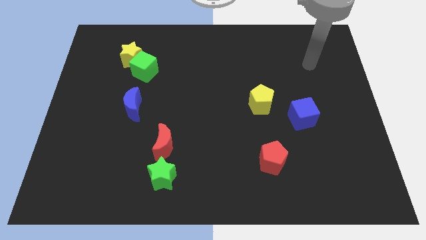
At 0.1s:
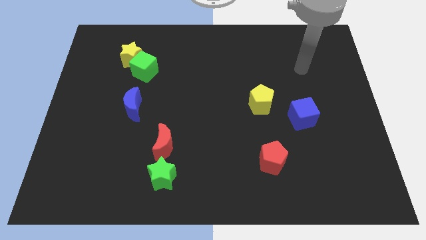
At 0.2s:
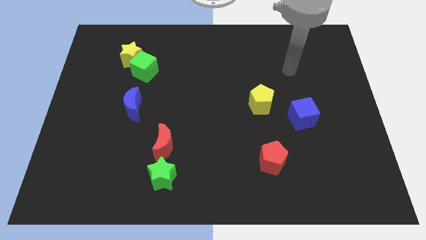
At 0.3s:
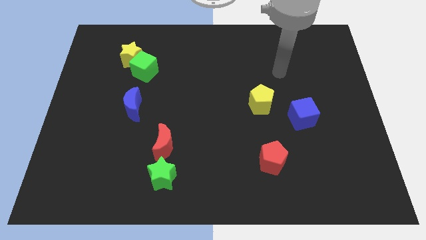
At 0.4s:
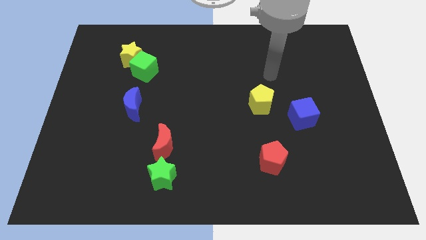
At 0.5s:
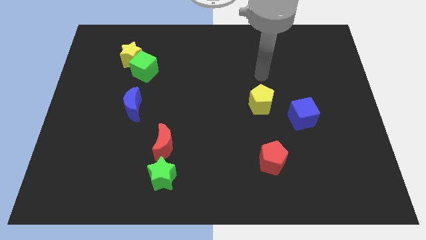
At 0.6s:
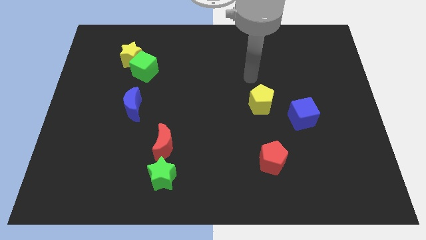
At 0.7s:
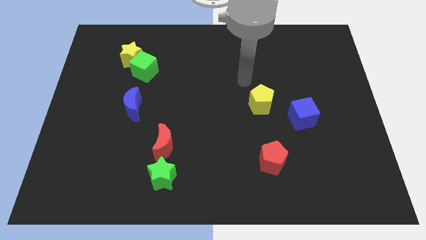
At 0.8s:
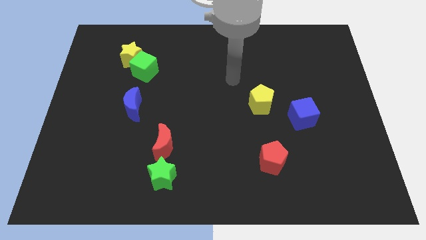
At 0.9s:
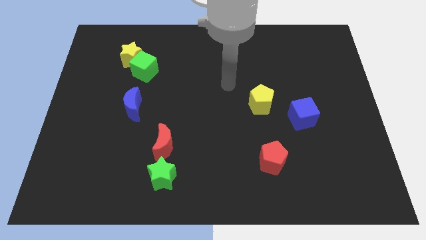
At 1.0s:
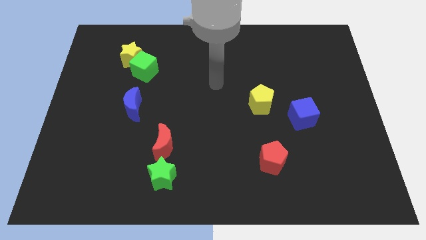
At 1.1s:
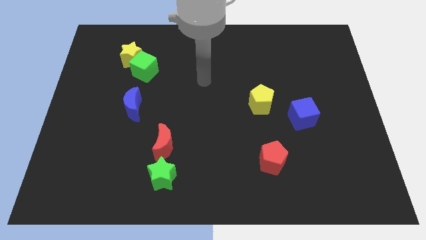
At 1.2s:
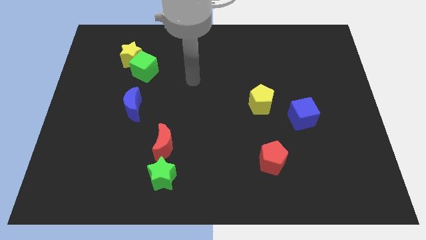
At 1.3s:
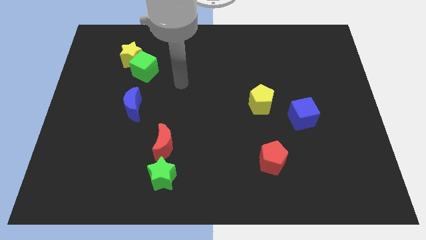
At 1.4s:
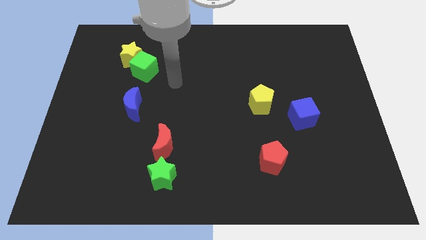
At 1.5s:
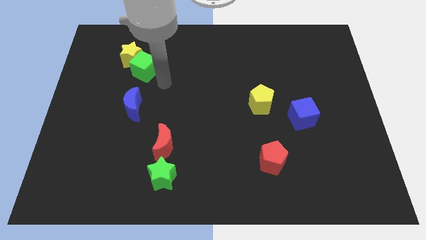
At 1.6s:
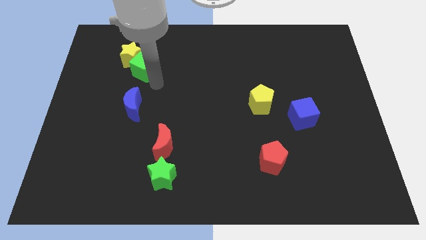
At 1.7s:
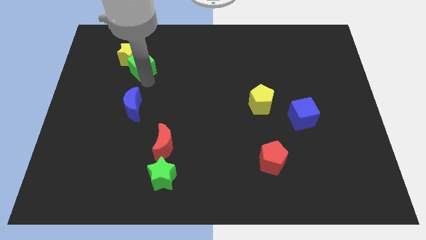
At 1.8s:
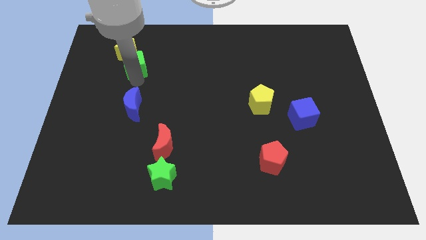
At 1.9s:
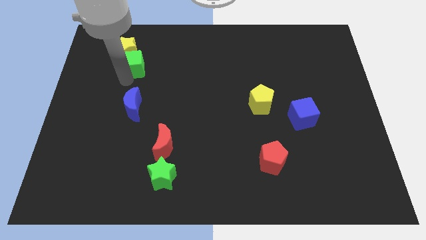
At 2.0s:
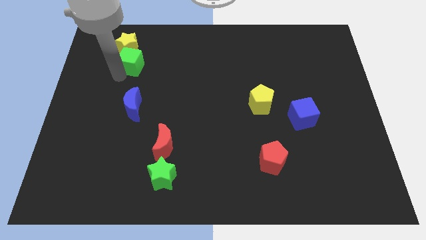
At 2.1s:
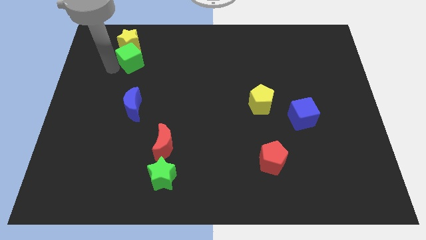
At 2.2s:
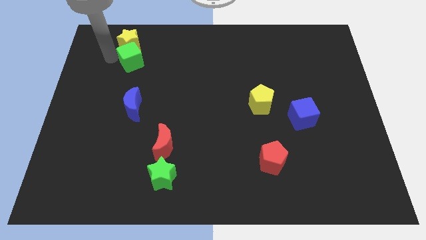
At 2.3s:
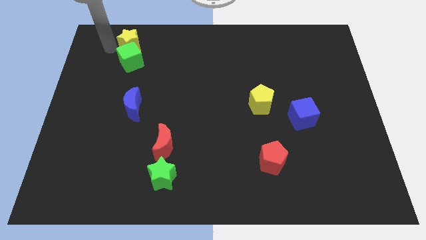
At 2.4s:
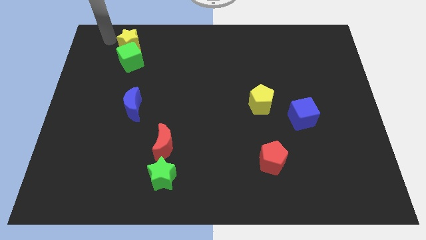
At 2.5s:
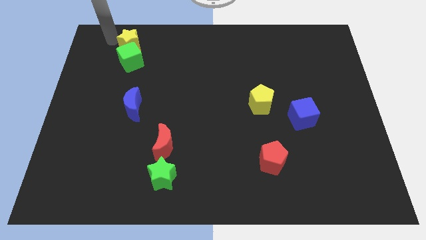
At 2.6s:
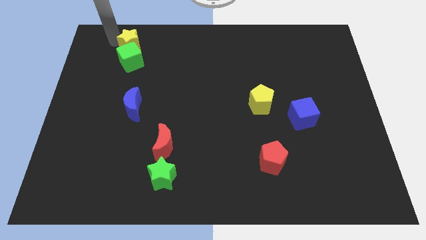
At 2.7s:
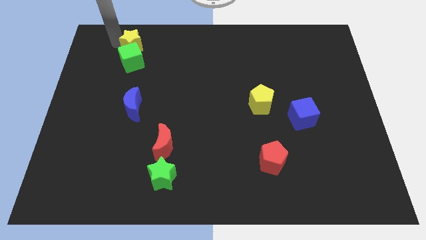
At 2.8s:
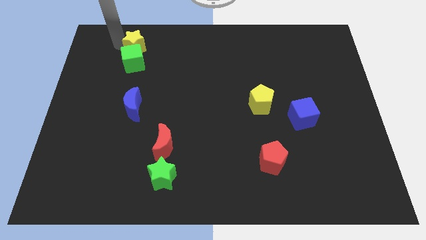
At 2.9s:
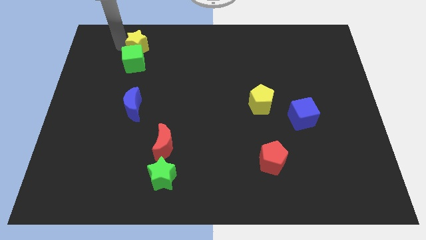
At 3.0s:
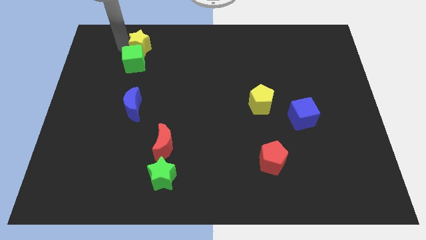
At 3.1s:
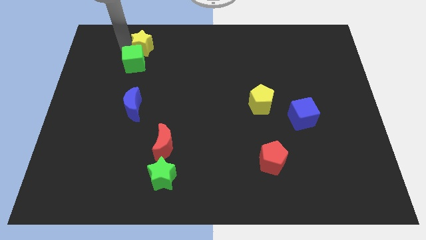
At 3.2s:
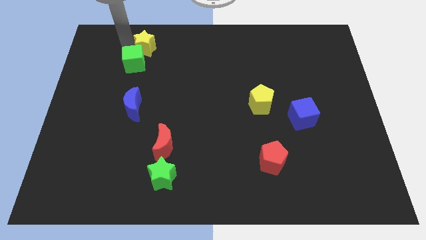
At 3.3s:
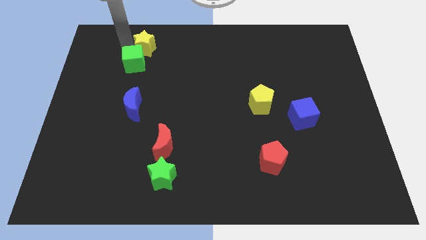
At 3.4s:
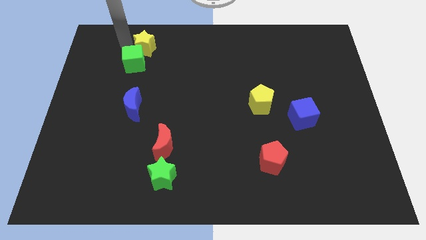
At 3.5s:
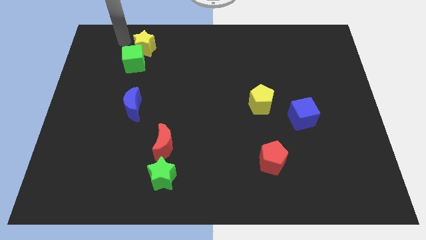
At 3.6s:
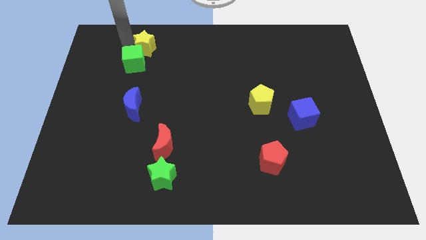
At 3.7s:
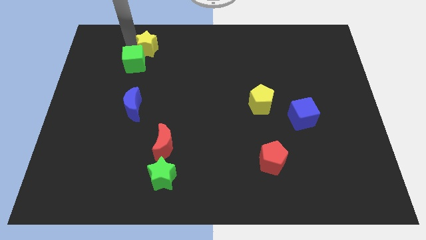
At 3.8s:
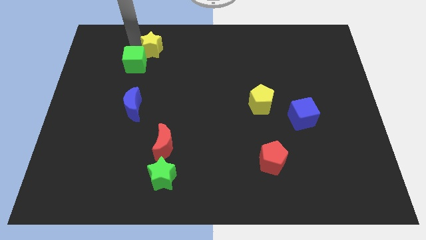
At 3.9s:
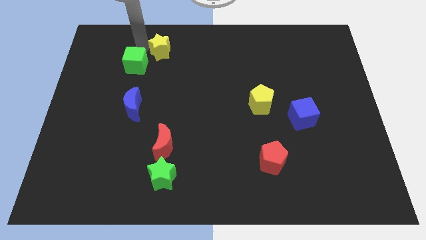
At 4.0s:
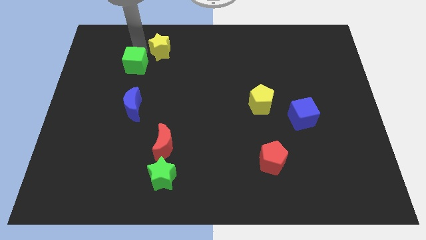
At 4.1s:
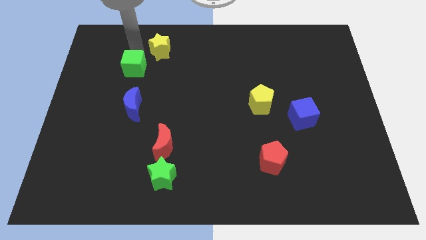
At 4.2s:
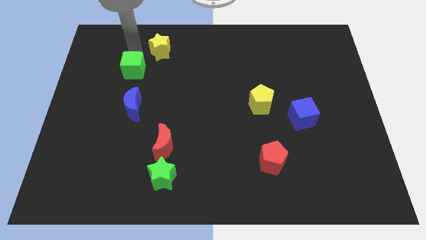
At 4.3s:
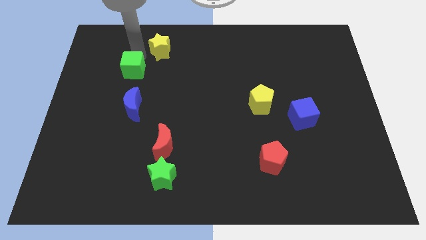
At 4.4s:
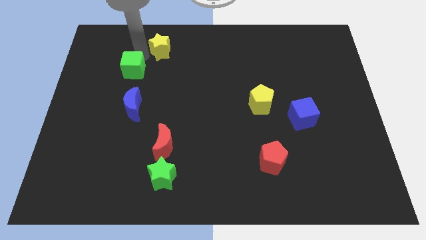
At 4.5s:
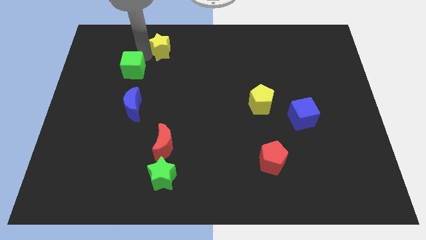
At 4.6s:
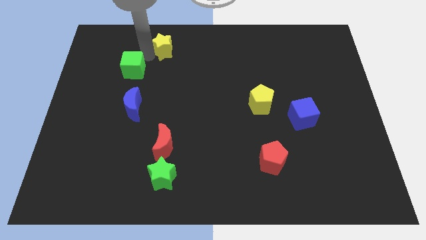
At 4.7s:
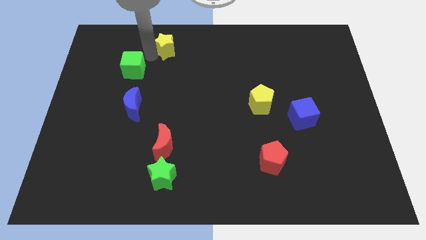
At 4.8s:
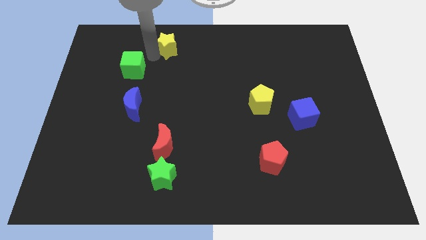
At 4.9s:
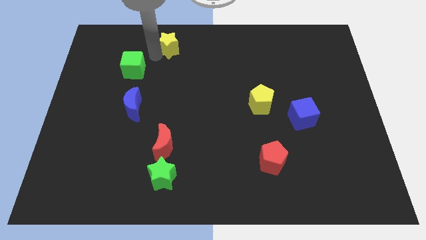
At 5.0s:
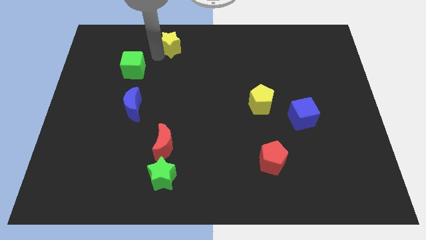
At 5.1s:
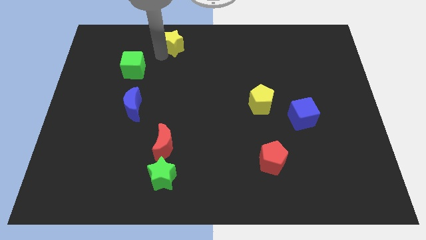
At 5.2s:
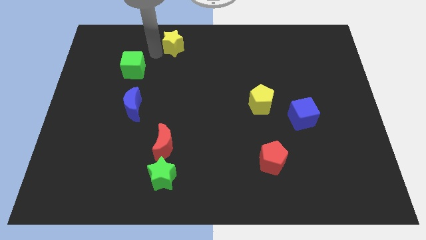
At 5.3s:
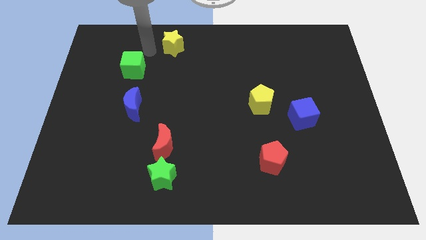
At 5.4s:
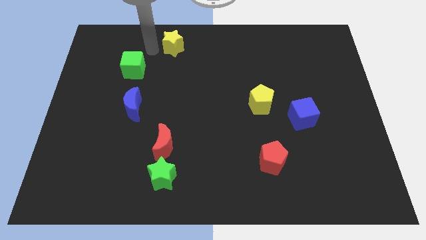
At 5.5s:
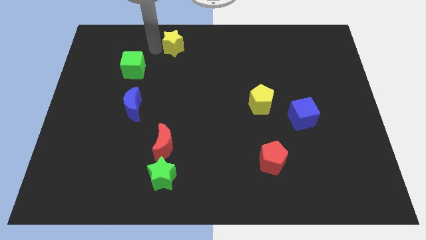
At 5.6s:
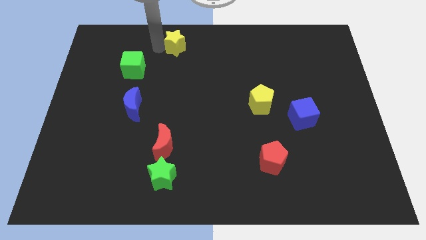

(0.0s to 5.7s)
push the yellow star to the towards your base
